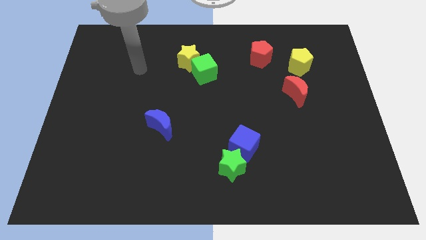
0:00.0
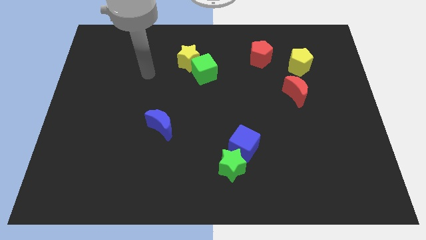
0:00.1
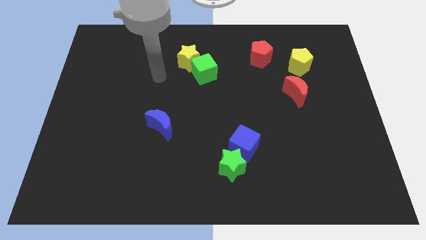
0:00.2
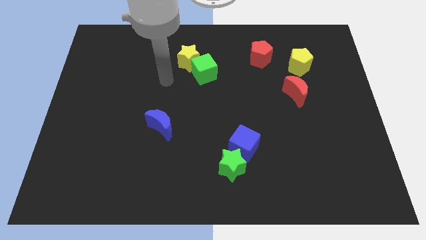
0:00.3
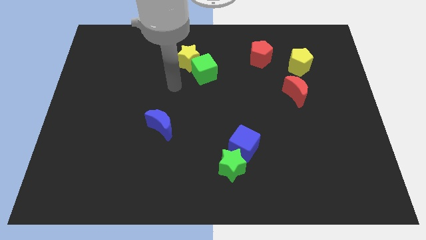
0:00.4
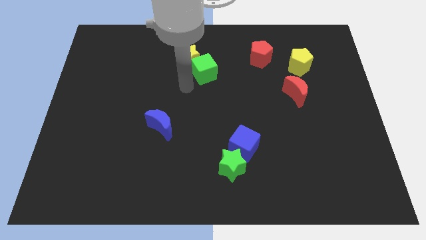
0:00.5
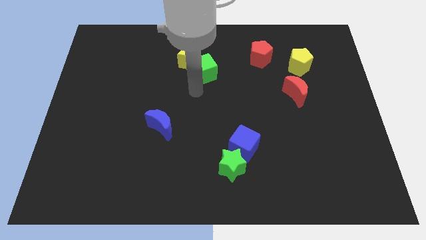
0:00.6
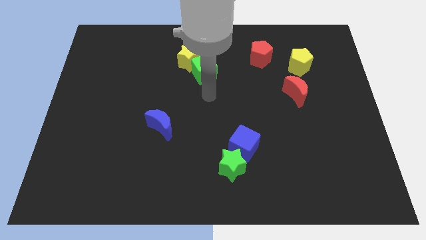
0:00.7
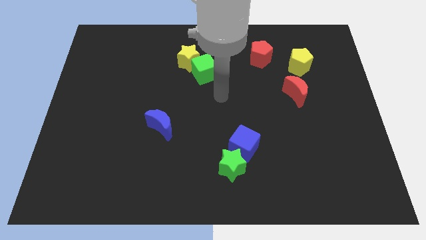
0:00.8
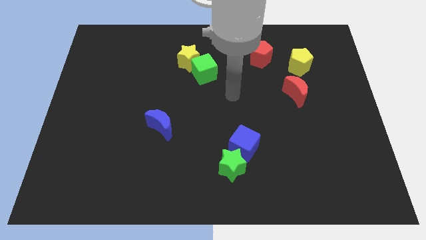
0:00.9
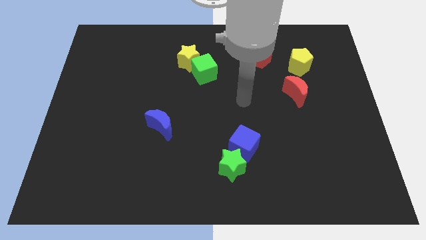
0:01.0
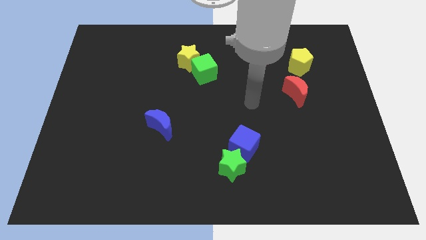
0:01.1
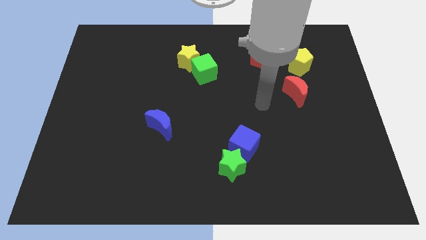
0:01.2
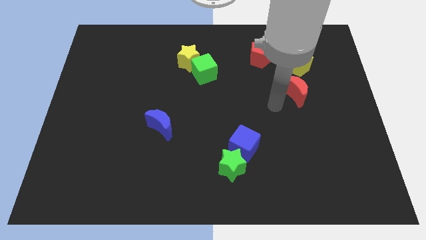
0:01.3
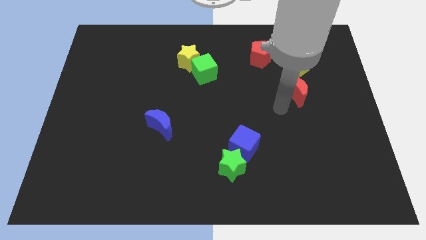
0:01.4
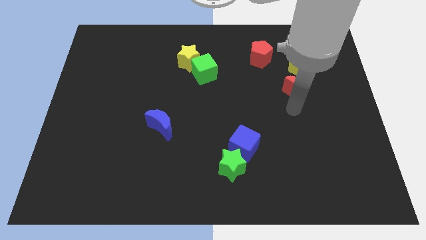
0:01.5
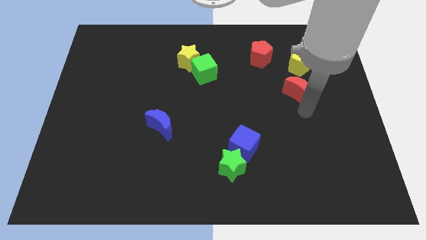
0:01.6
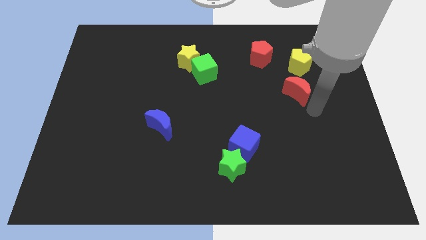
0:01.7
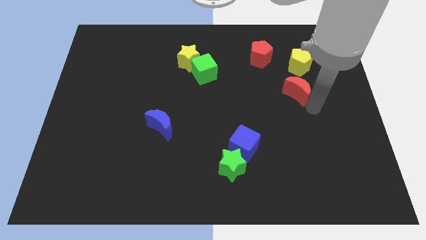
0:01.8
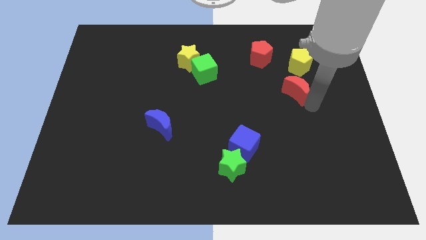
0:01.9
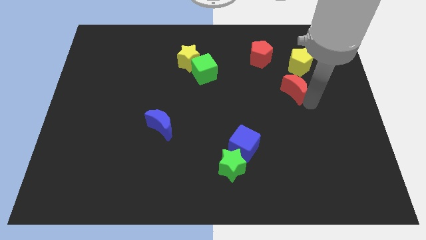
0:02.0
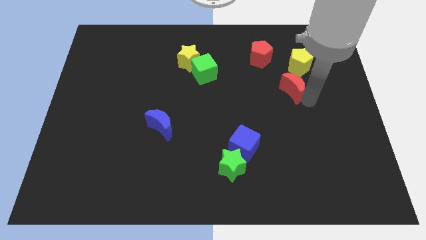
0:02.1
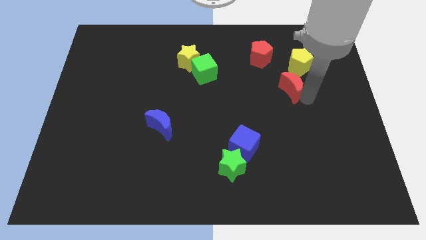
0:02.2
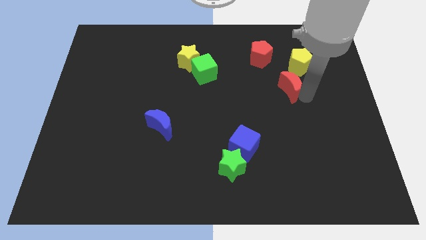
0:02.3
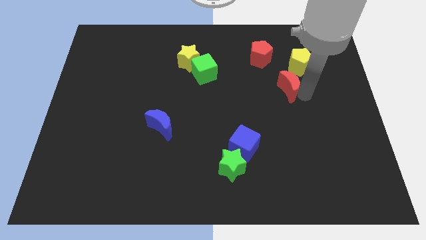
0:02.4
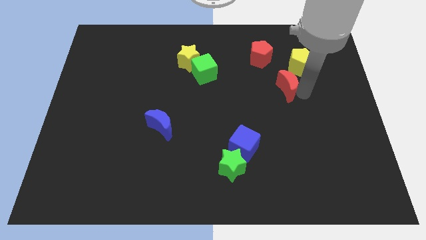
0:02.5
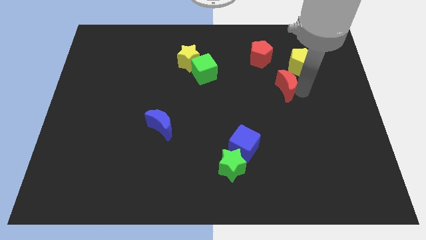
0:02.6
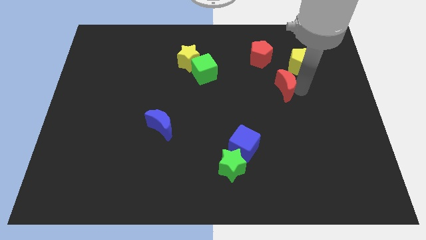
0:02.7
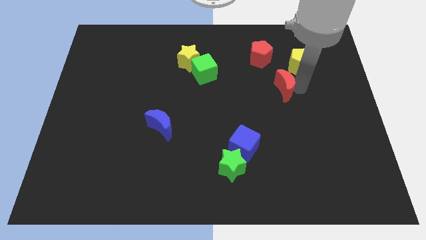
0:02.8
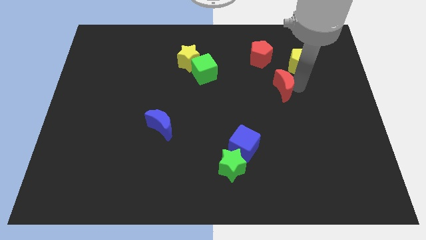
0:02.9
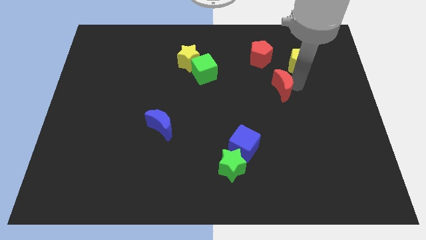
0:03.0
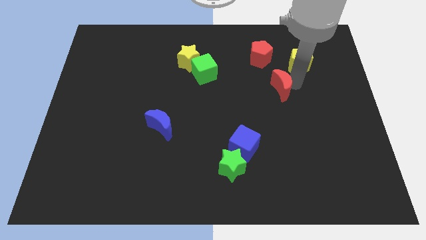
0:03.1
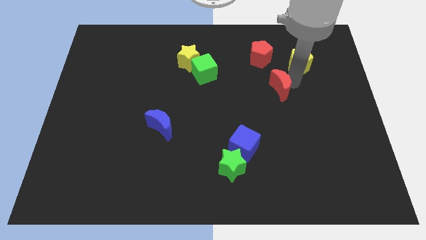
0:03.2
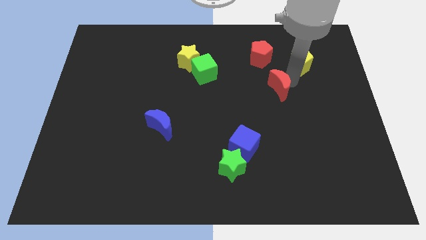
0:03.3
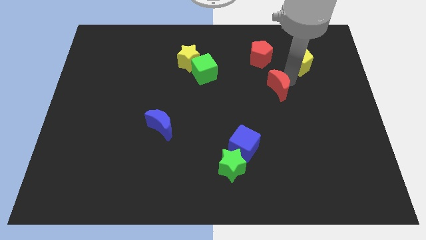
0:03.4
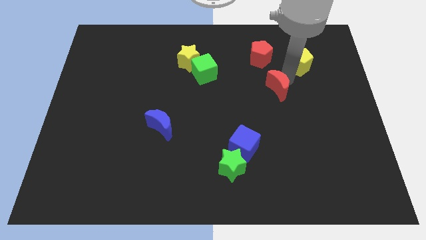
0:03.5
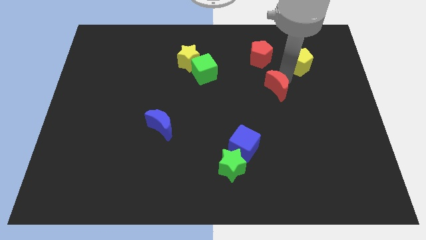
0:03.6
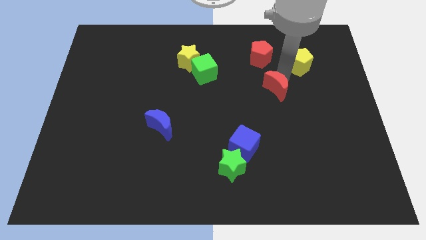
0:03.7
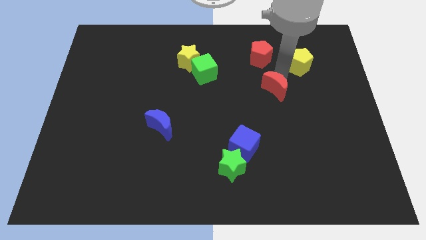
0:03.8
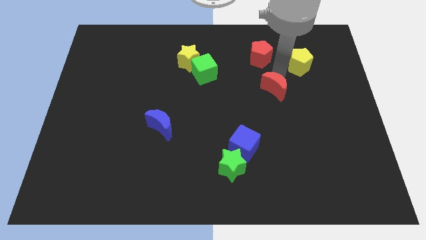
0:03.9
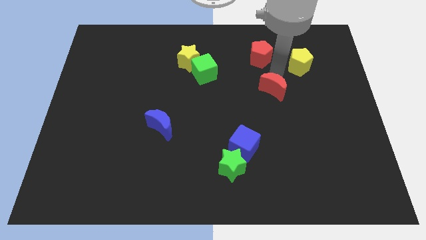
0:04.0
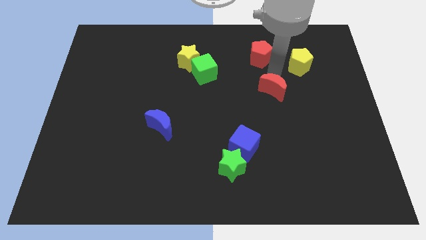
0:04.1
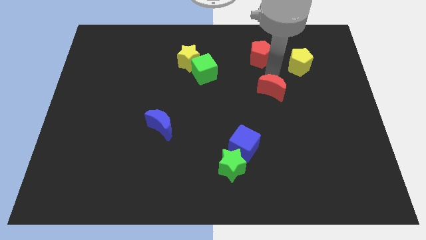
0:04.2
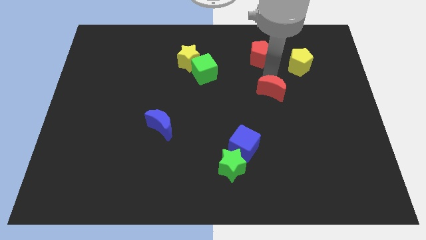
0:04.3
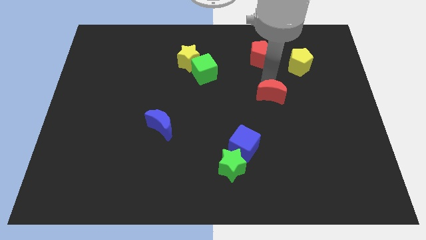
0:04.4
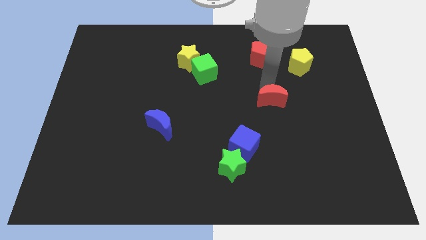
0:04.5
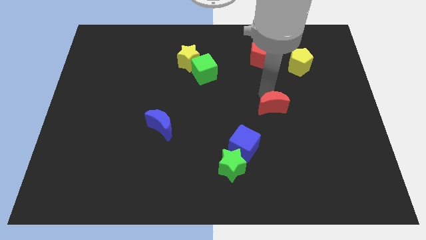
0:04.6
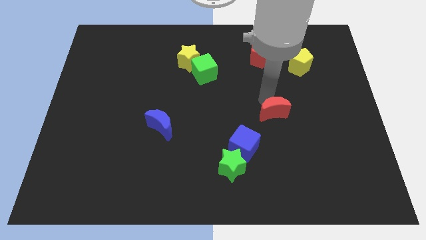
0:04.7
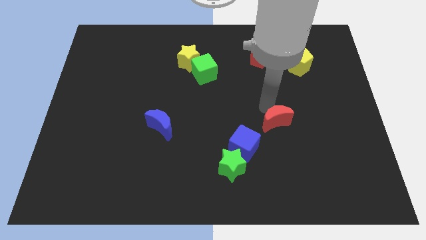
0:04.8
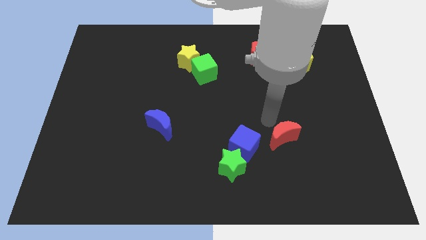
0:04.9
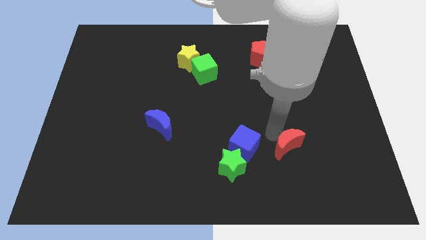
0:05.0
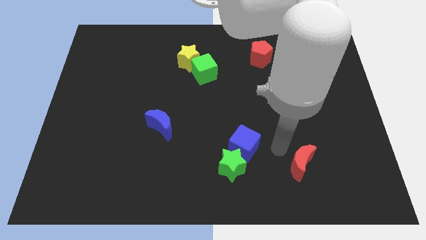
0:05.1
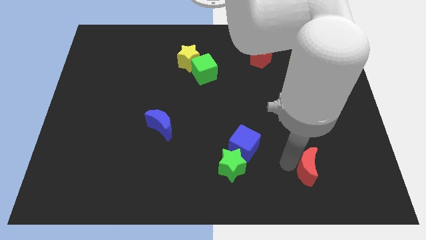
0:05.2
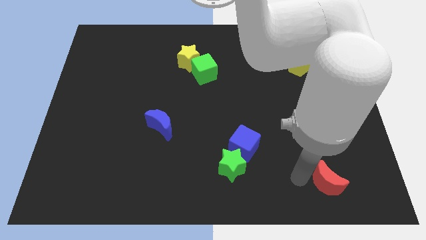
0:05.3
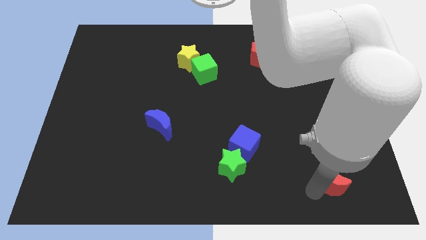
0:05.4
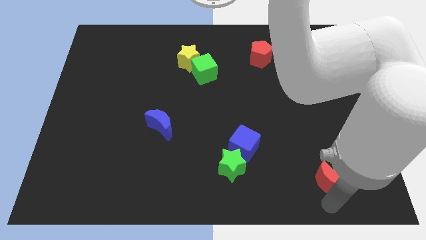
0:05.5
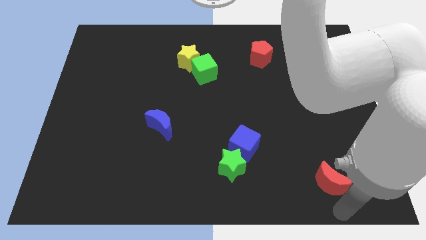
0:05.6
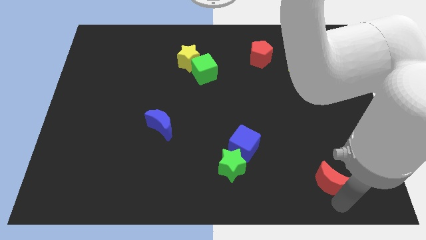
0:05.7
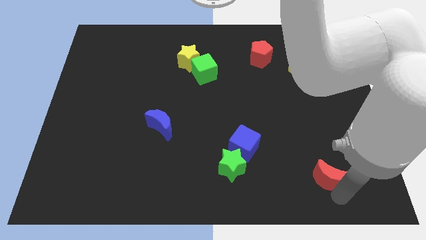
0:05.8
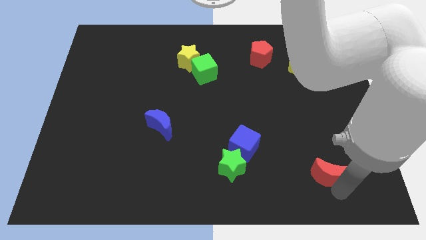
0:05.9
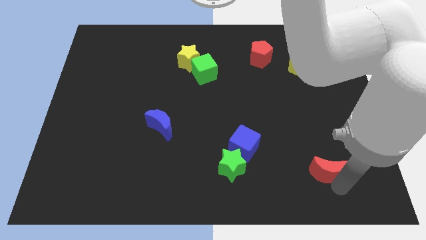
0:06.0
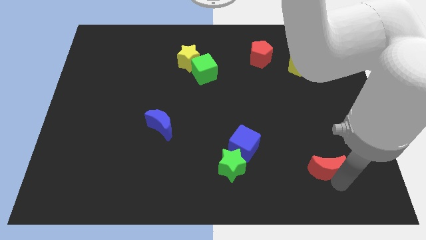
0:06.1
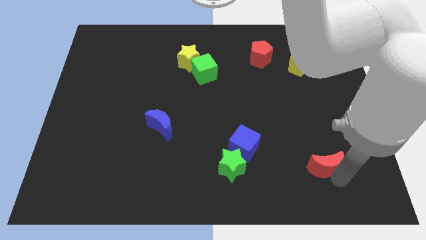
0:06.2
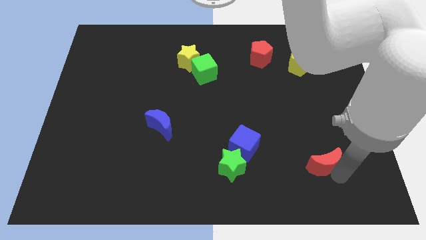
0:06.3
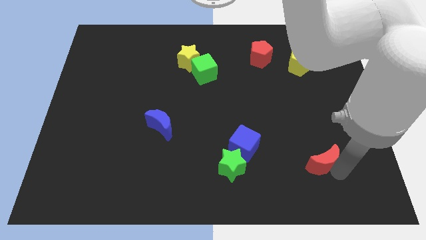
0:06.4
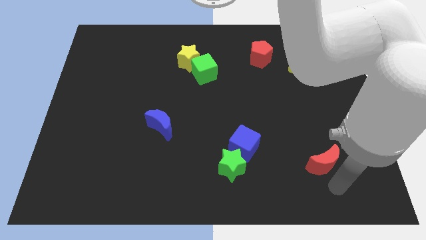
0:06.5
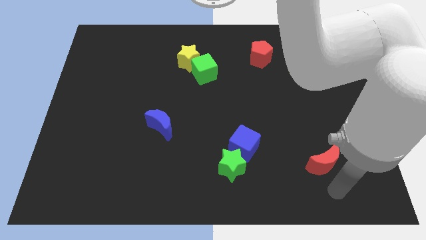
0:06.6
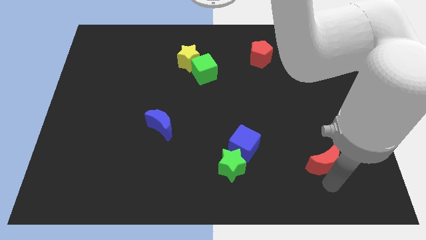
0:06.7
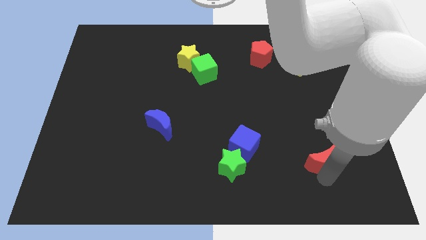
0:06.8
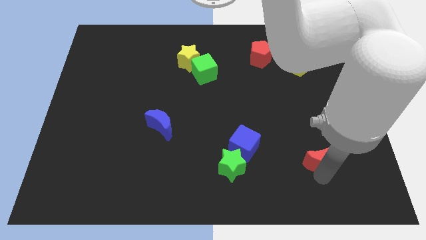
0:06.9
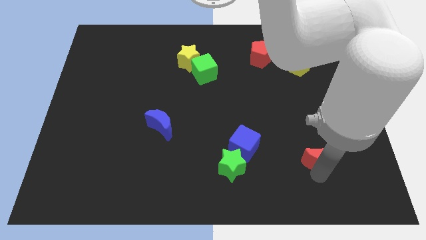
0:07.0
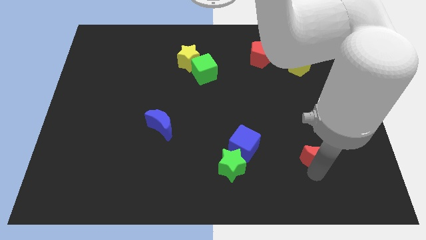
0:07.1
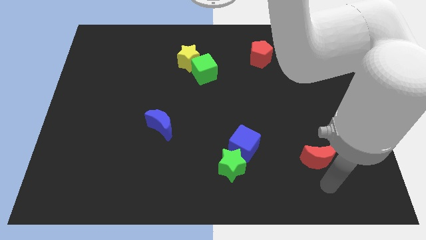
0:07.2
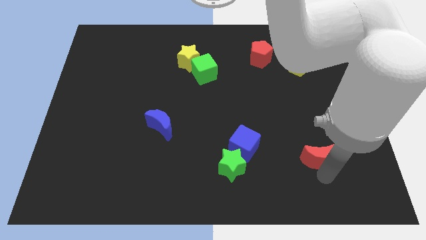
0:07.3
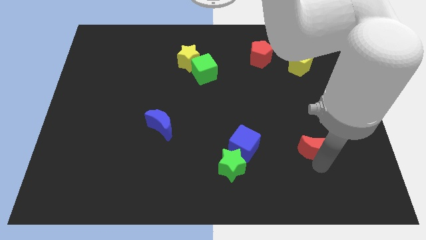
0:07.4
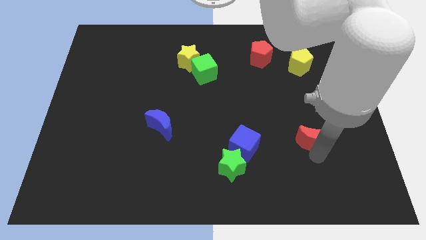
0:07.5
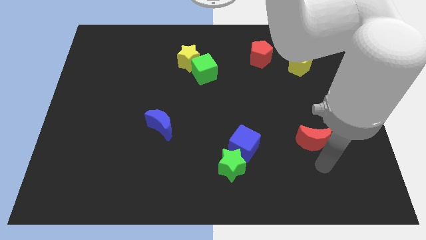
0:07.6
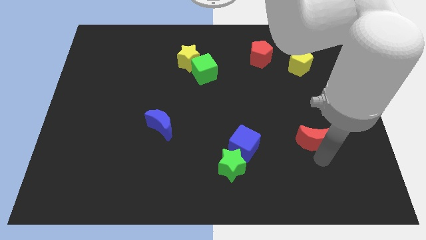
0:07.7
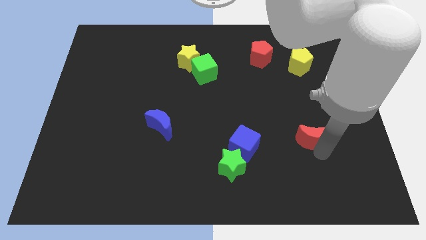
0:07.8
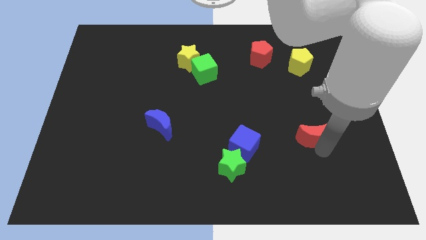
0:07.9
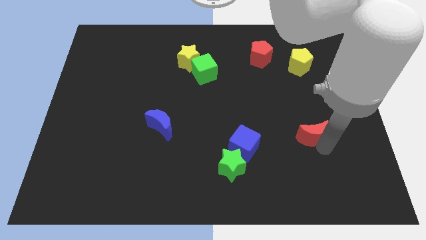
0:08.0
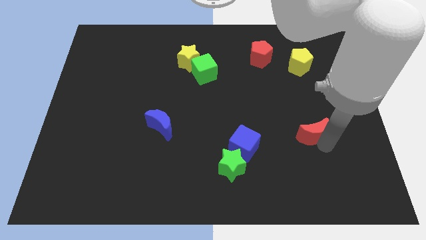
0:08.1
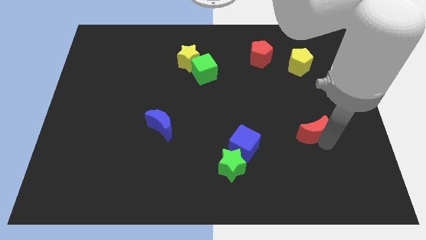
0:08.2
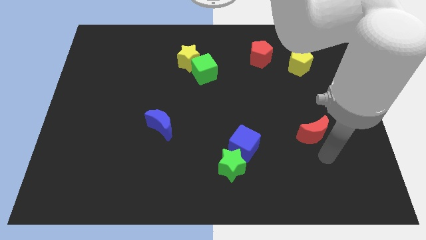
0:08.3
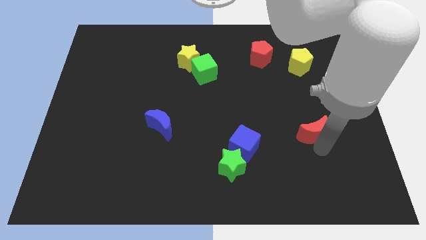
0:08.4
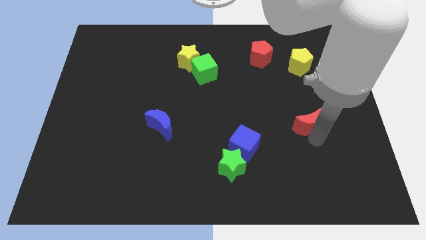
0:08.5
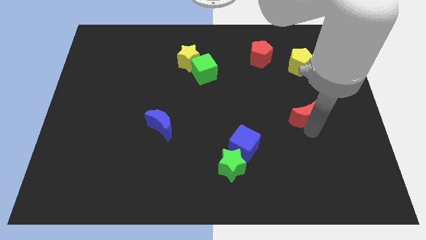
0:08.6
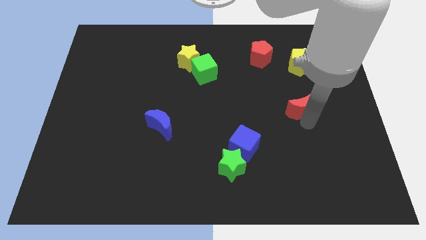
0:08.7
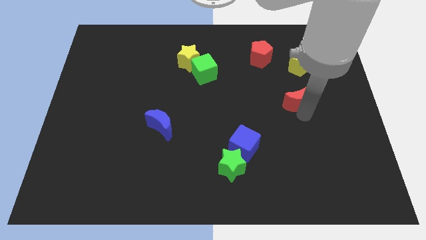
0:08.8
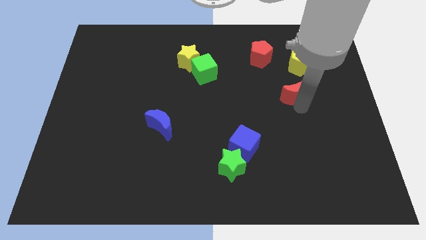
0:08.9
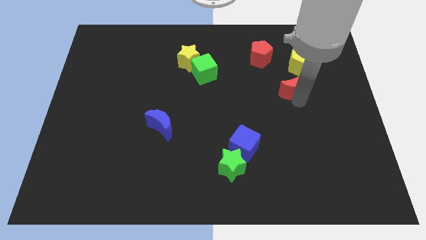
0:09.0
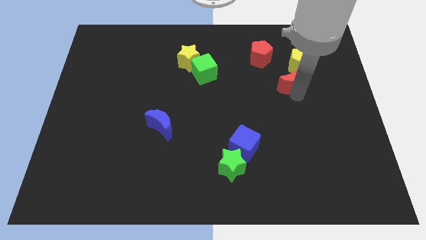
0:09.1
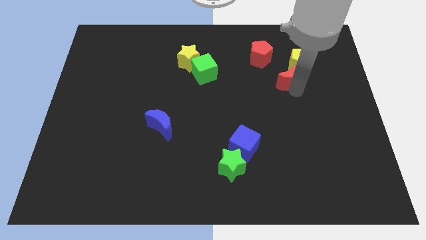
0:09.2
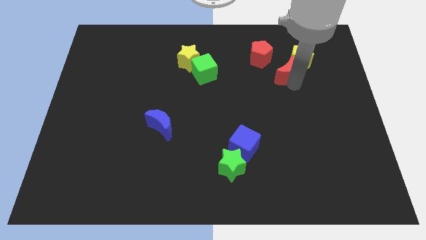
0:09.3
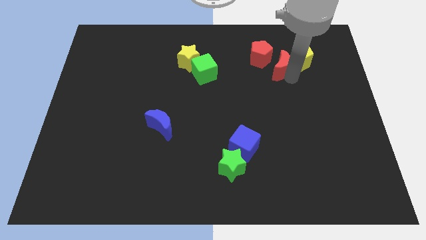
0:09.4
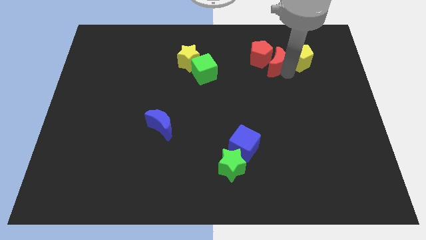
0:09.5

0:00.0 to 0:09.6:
slide the red moon next to the red pentagon
